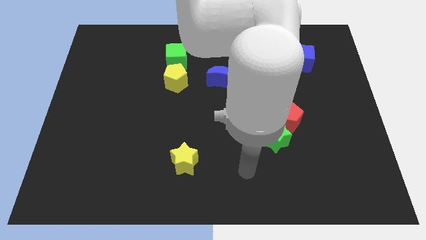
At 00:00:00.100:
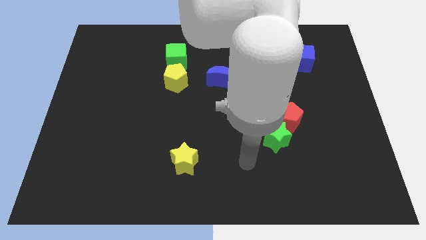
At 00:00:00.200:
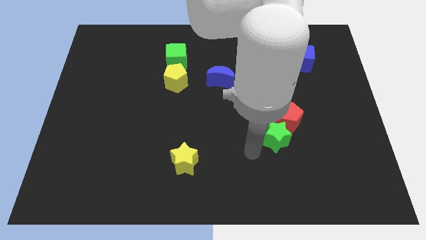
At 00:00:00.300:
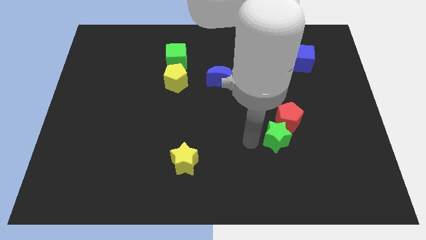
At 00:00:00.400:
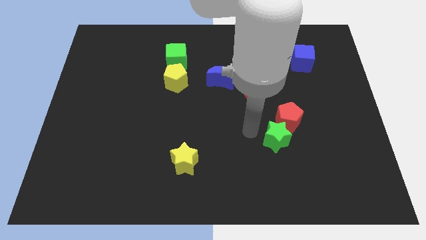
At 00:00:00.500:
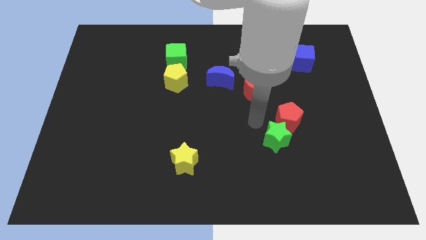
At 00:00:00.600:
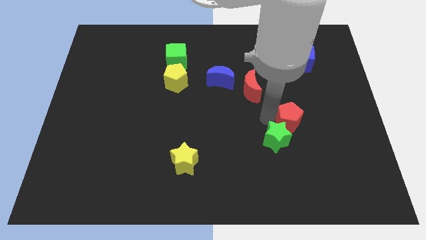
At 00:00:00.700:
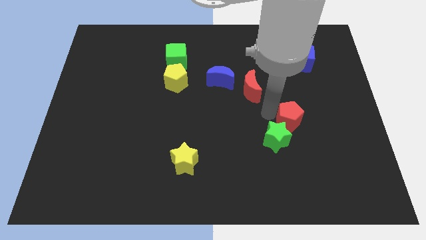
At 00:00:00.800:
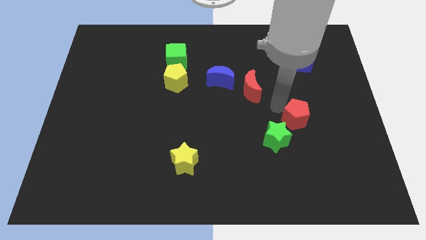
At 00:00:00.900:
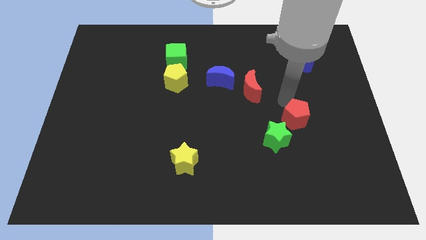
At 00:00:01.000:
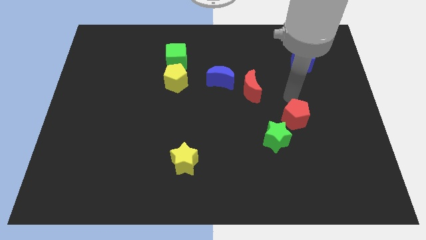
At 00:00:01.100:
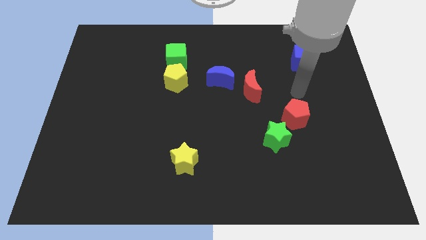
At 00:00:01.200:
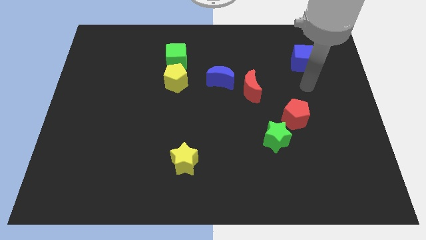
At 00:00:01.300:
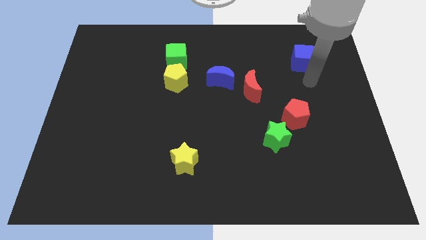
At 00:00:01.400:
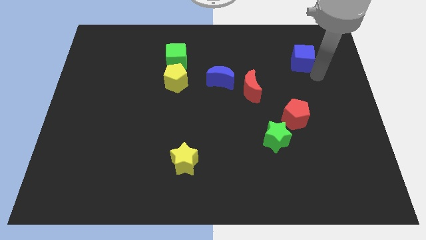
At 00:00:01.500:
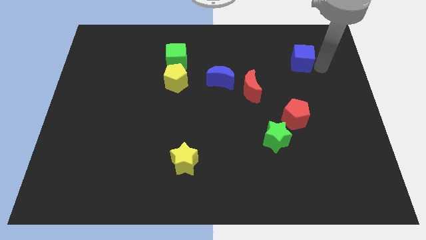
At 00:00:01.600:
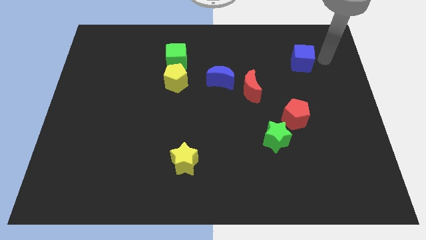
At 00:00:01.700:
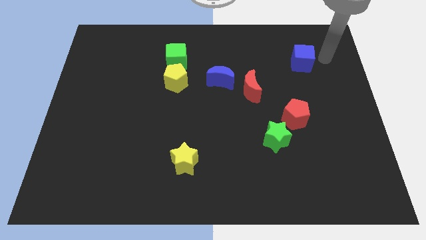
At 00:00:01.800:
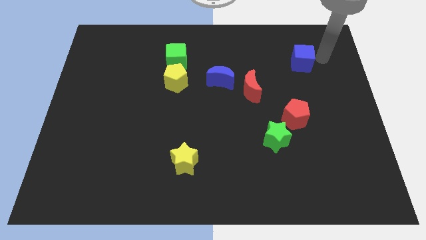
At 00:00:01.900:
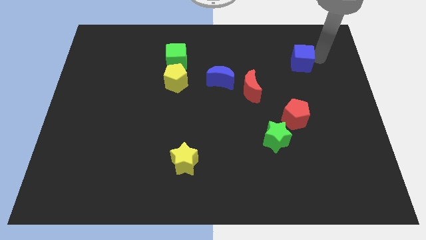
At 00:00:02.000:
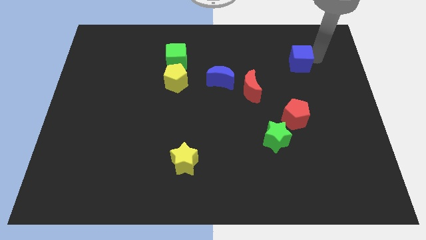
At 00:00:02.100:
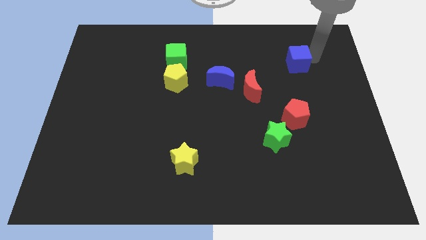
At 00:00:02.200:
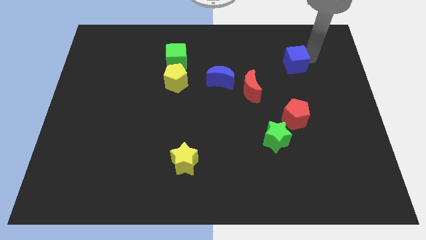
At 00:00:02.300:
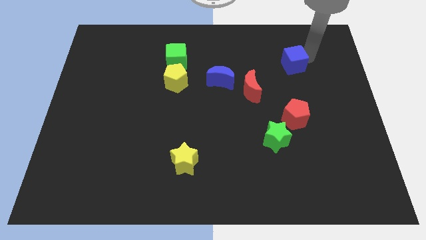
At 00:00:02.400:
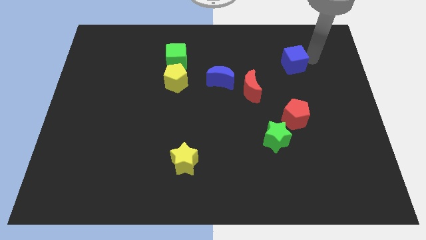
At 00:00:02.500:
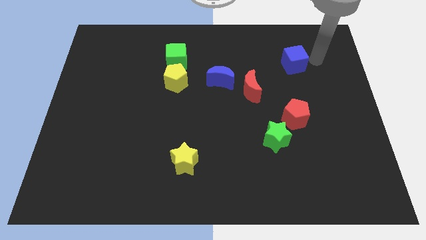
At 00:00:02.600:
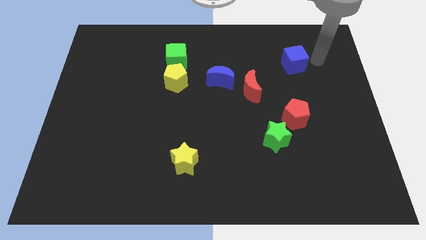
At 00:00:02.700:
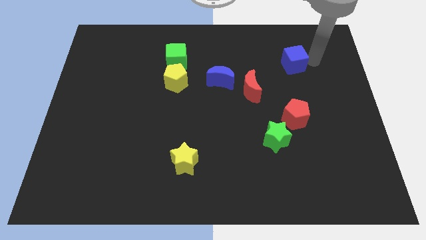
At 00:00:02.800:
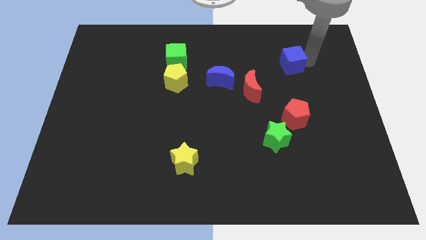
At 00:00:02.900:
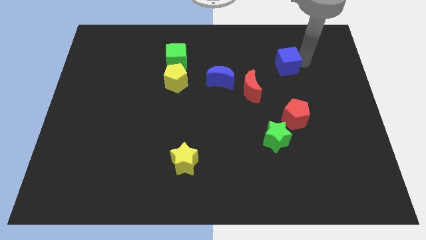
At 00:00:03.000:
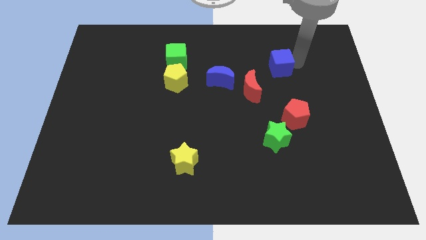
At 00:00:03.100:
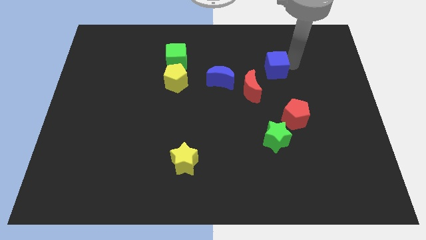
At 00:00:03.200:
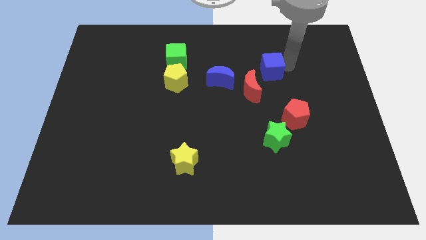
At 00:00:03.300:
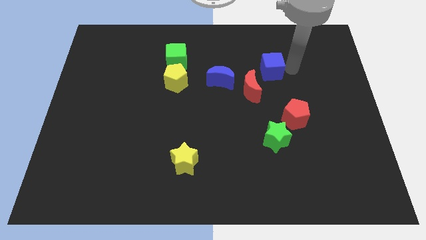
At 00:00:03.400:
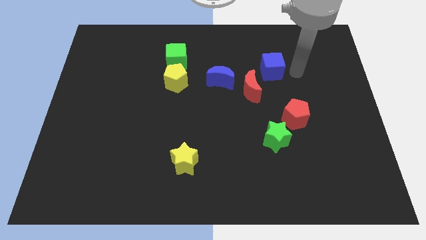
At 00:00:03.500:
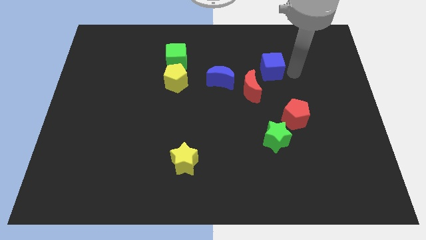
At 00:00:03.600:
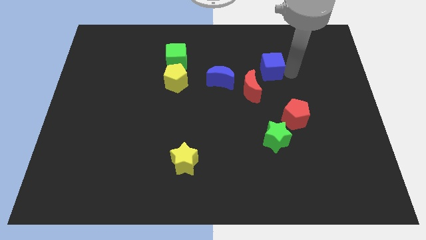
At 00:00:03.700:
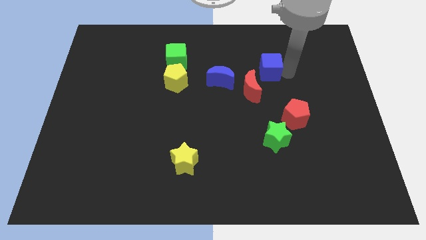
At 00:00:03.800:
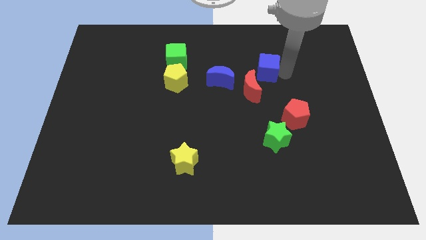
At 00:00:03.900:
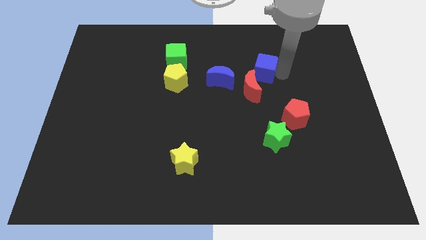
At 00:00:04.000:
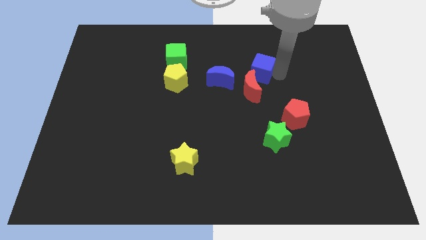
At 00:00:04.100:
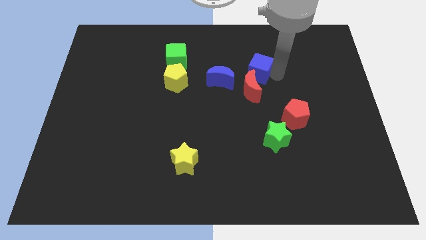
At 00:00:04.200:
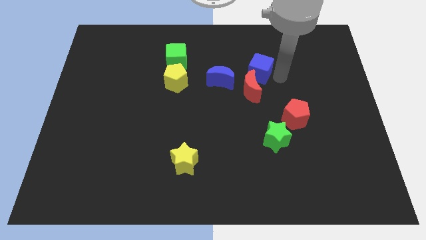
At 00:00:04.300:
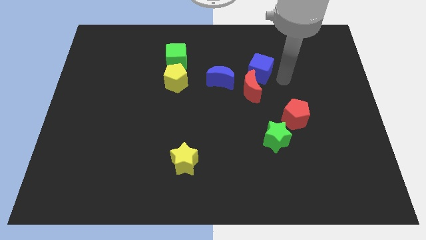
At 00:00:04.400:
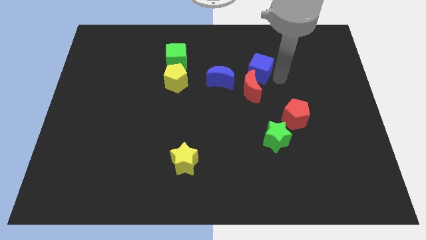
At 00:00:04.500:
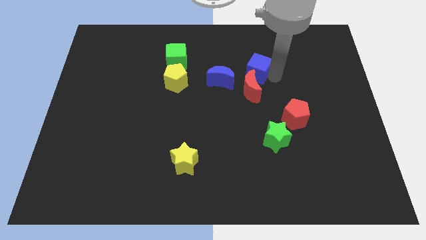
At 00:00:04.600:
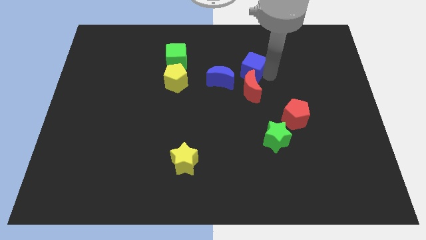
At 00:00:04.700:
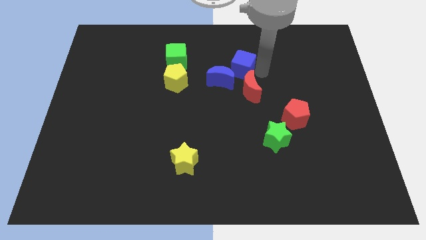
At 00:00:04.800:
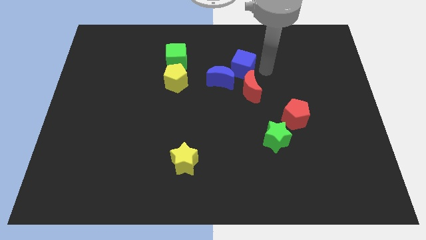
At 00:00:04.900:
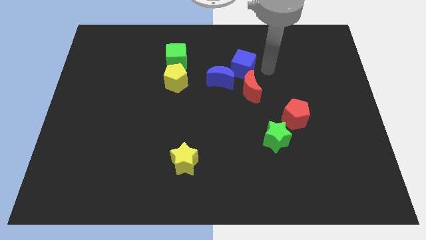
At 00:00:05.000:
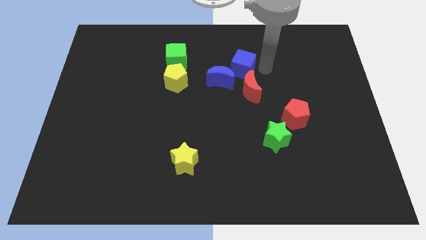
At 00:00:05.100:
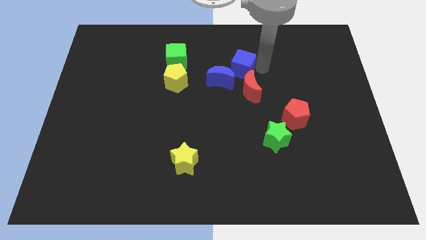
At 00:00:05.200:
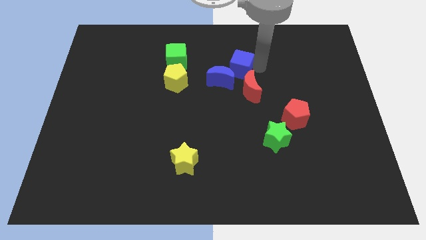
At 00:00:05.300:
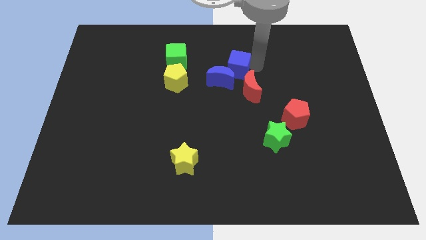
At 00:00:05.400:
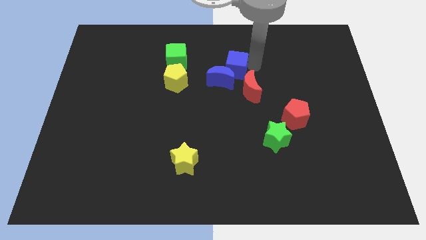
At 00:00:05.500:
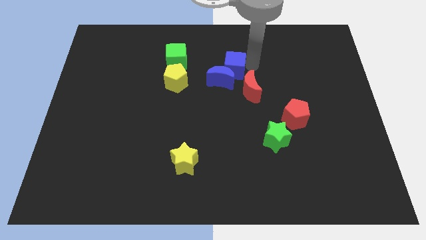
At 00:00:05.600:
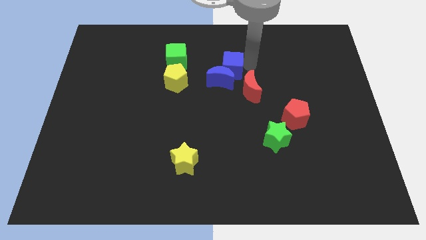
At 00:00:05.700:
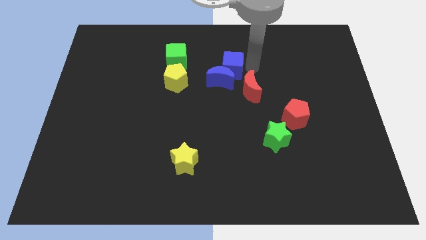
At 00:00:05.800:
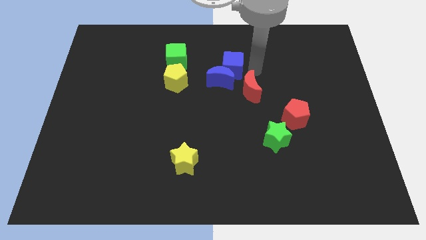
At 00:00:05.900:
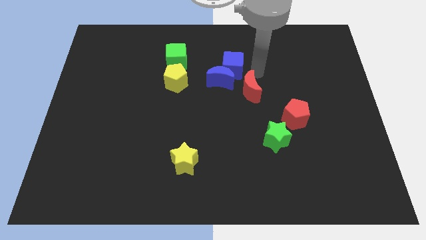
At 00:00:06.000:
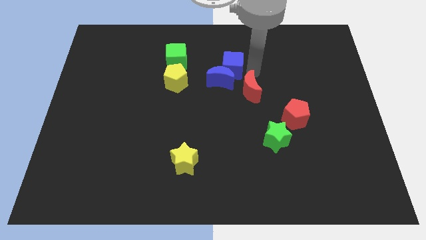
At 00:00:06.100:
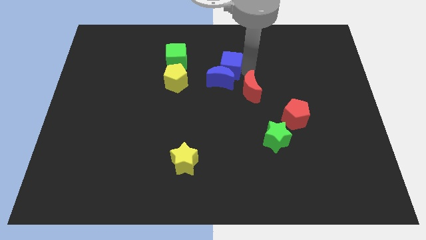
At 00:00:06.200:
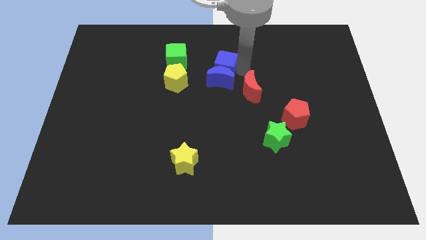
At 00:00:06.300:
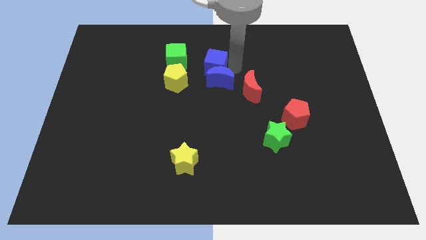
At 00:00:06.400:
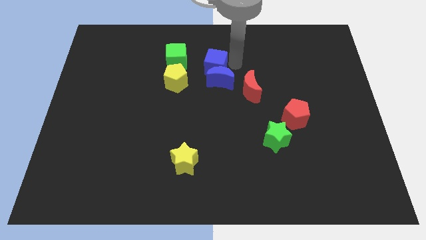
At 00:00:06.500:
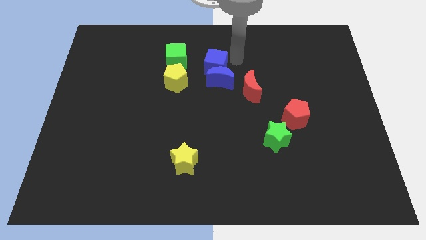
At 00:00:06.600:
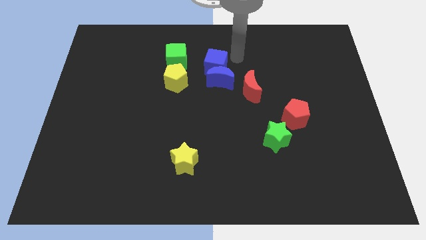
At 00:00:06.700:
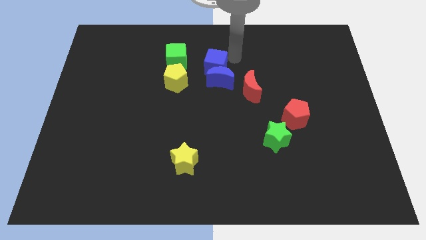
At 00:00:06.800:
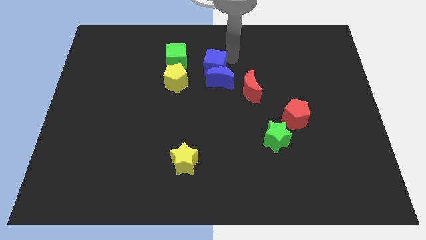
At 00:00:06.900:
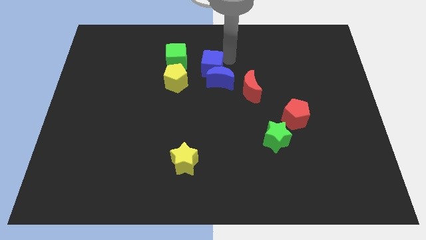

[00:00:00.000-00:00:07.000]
push the blue cube to the bottom right side of the green cube
